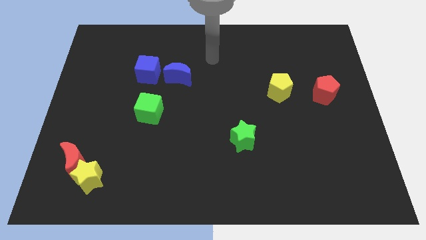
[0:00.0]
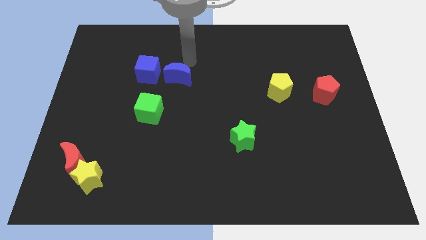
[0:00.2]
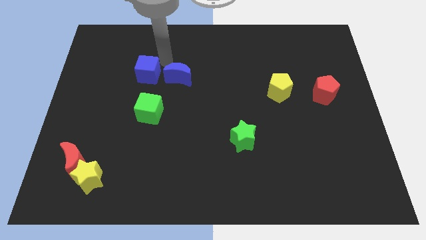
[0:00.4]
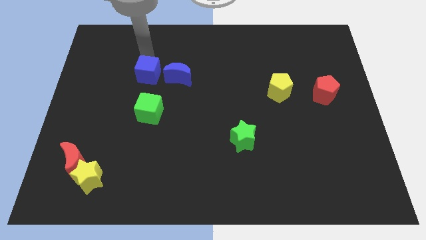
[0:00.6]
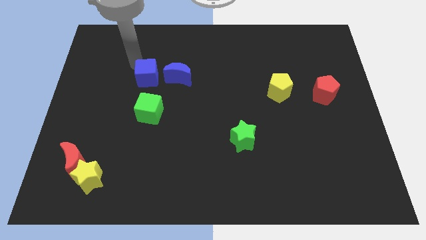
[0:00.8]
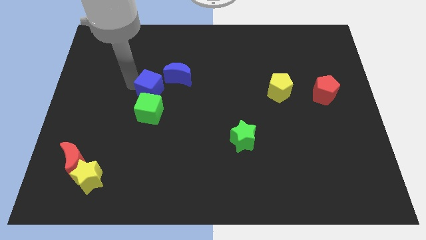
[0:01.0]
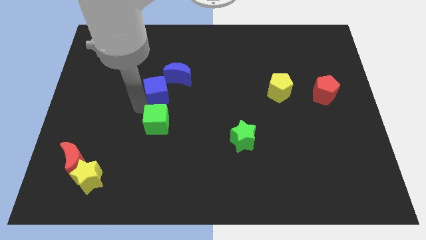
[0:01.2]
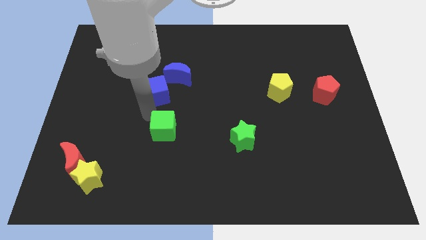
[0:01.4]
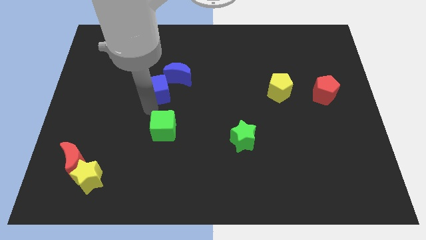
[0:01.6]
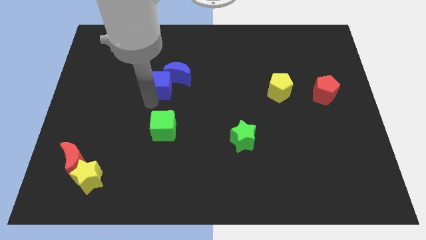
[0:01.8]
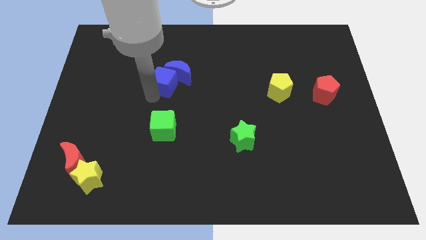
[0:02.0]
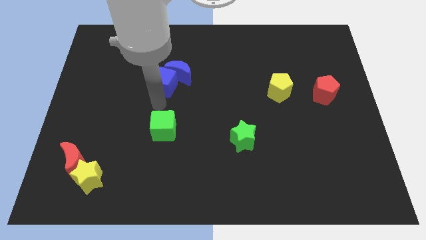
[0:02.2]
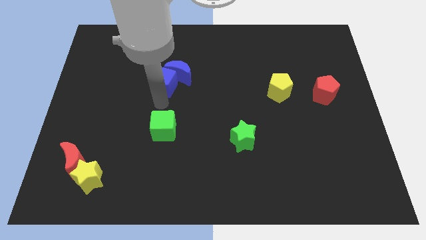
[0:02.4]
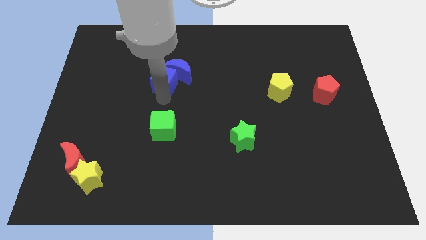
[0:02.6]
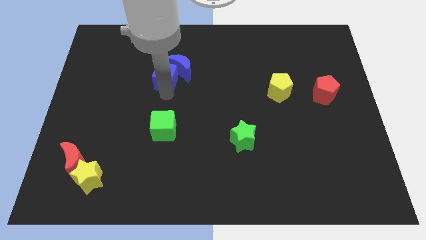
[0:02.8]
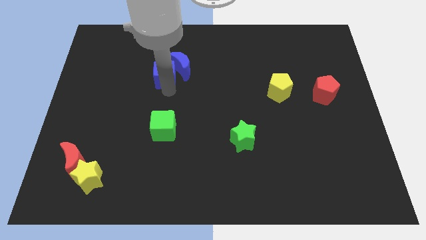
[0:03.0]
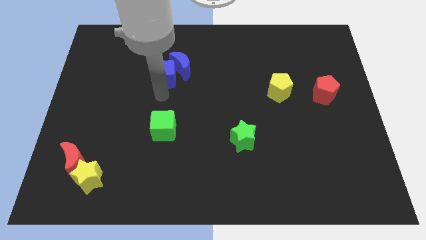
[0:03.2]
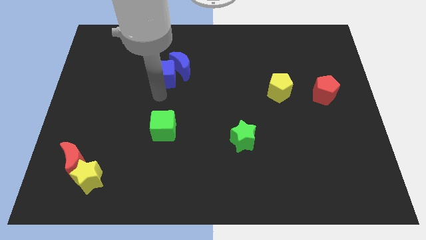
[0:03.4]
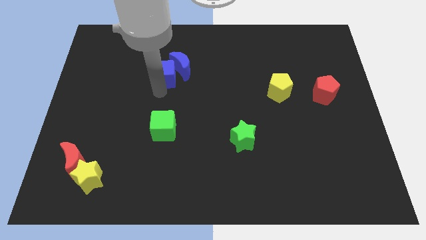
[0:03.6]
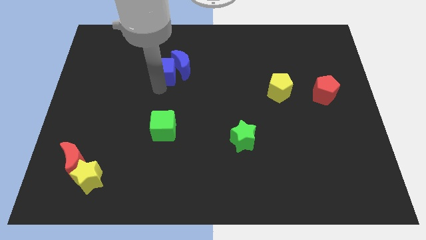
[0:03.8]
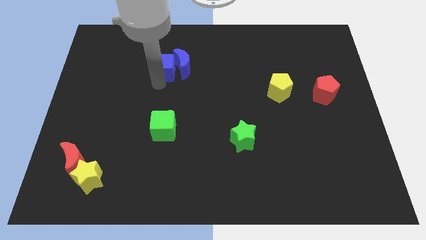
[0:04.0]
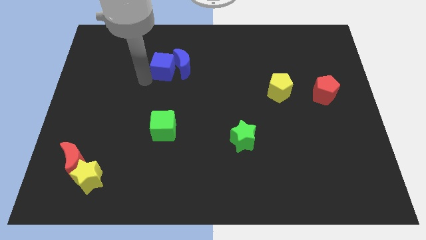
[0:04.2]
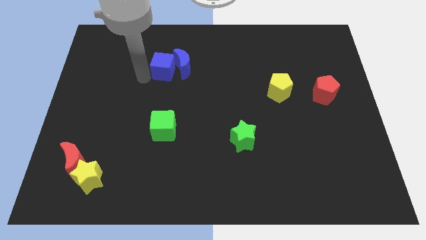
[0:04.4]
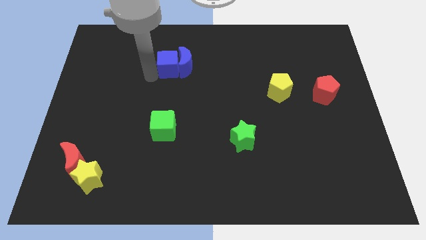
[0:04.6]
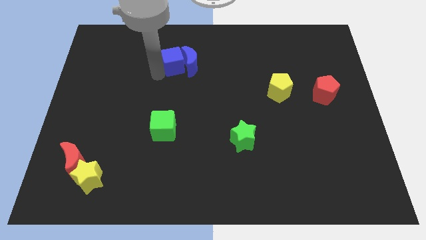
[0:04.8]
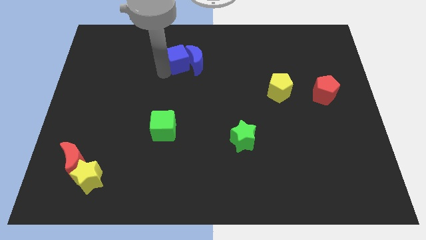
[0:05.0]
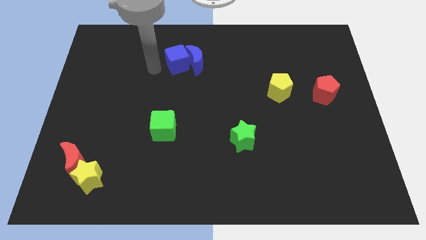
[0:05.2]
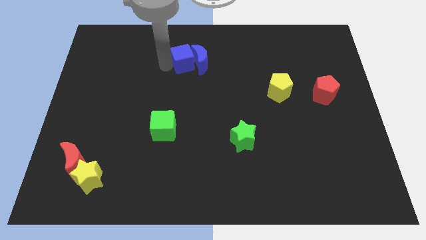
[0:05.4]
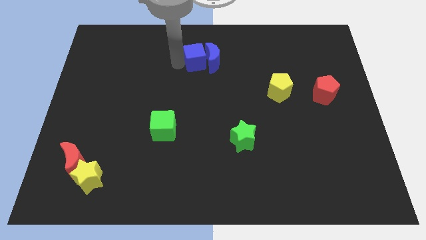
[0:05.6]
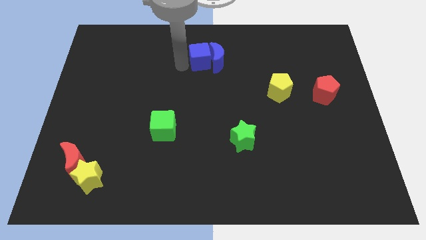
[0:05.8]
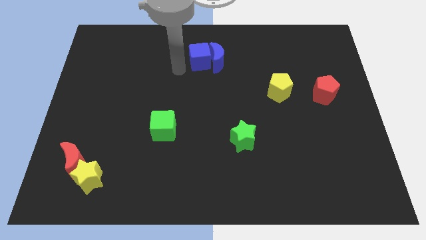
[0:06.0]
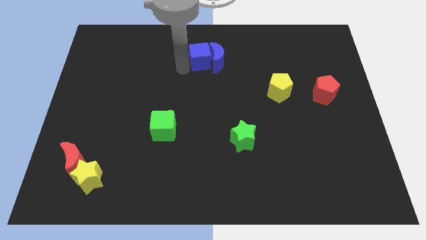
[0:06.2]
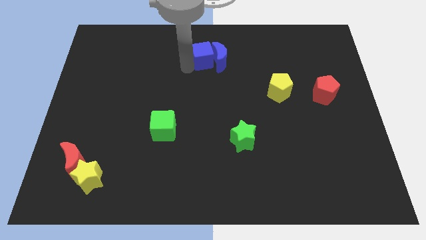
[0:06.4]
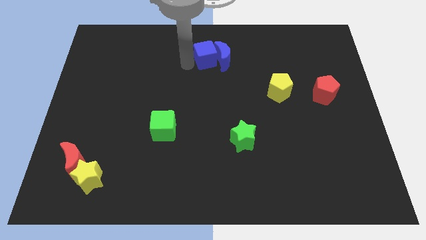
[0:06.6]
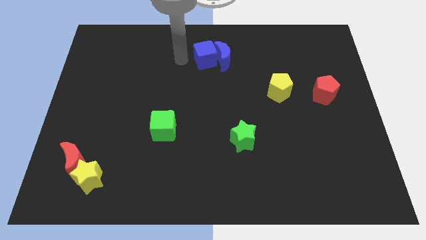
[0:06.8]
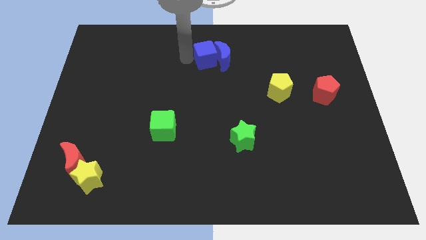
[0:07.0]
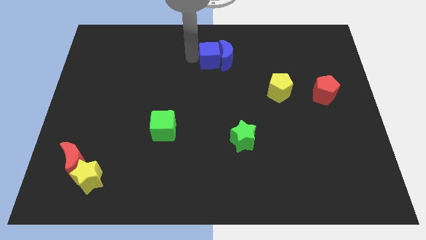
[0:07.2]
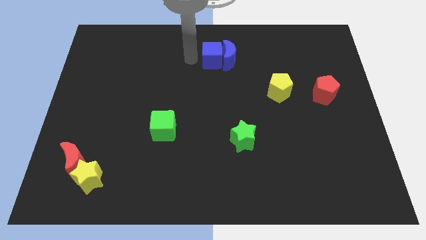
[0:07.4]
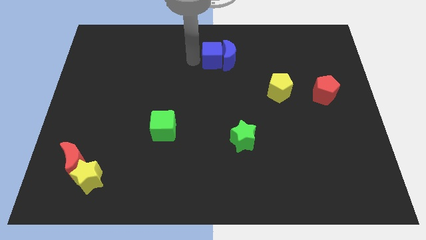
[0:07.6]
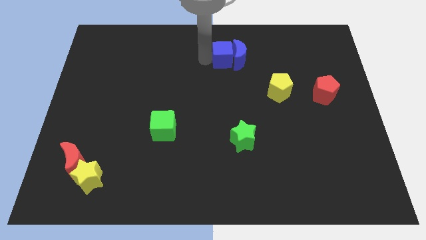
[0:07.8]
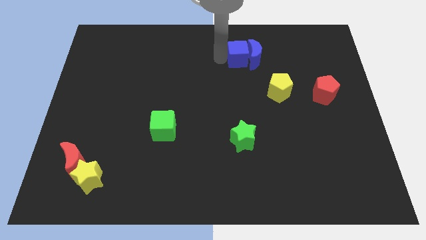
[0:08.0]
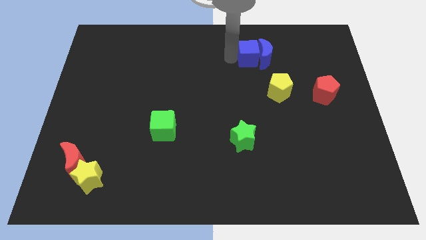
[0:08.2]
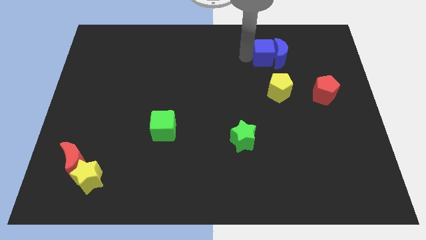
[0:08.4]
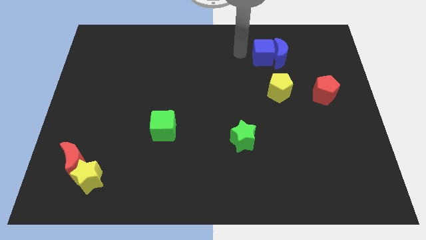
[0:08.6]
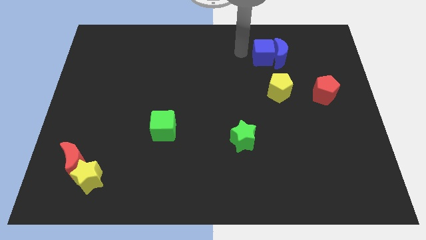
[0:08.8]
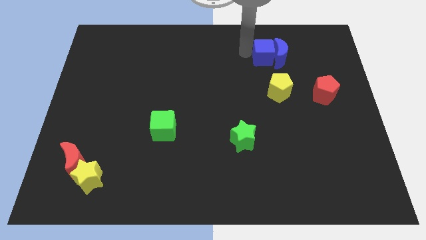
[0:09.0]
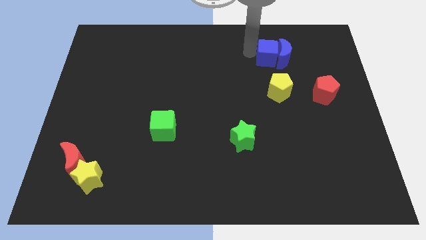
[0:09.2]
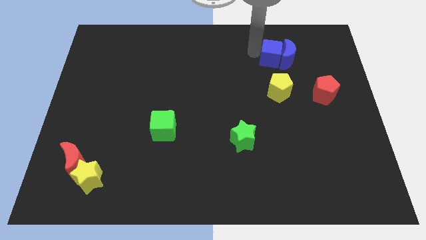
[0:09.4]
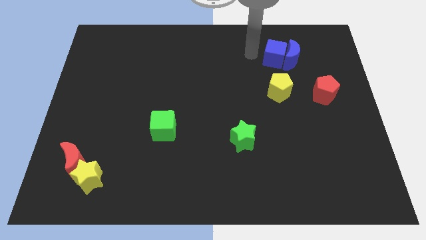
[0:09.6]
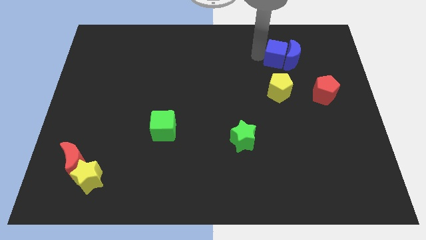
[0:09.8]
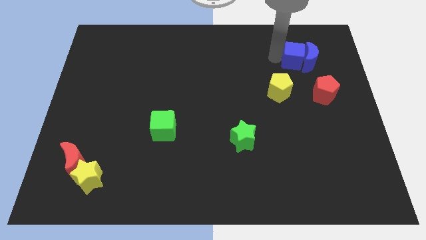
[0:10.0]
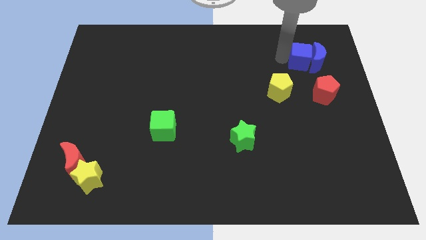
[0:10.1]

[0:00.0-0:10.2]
move the blue cube to the top side of the red pentagon

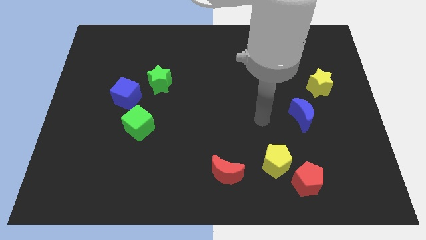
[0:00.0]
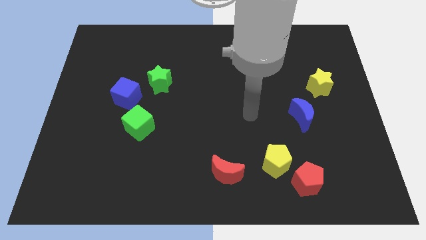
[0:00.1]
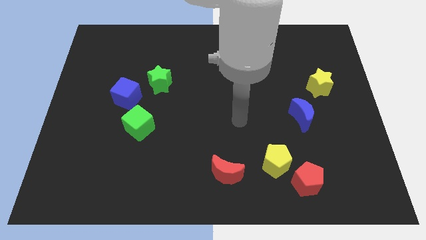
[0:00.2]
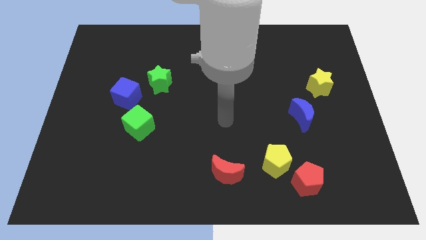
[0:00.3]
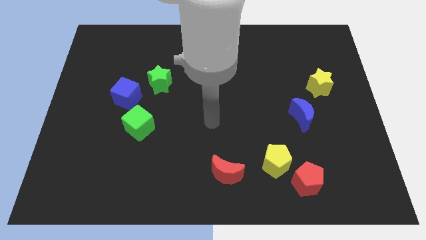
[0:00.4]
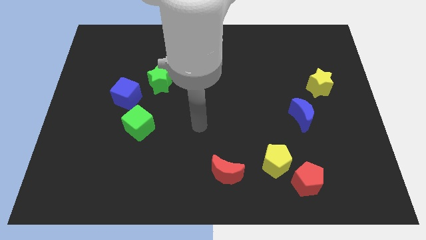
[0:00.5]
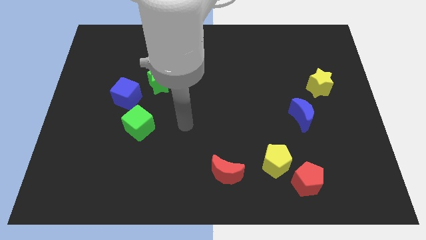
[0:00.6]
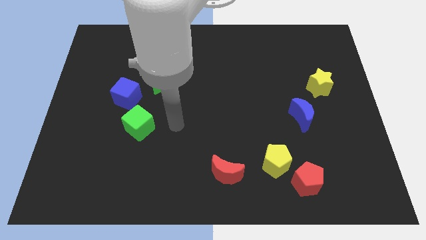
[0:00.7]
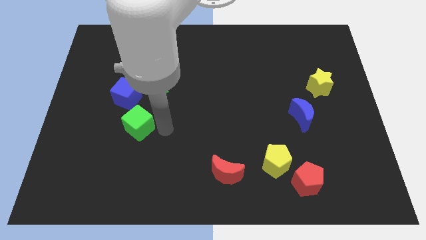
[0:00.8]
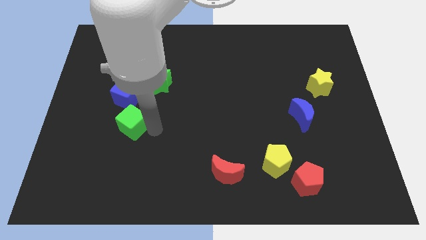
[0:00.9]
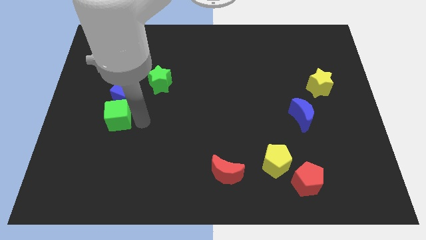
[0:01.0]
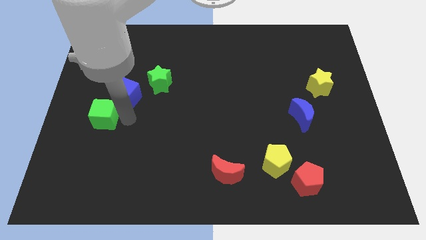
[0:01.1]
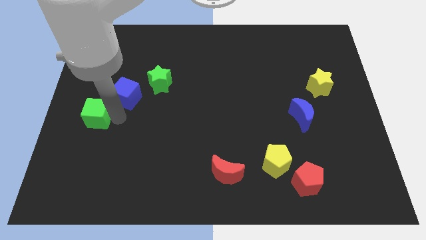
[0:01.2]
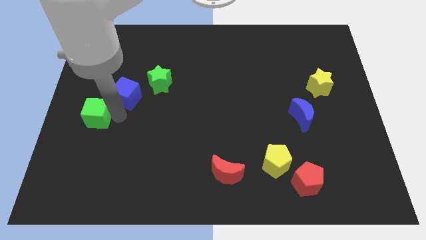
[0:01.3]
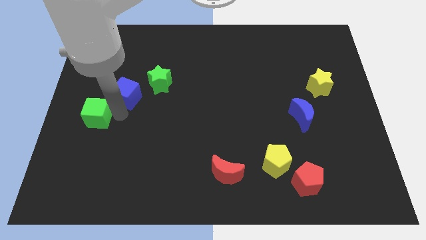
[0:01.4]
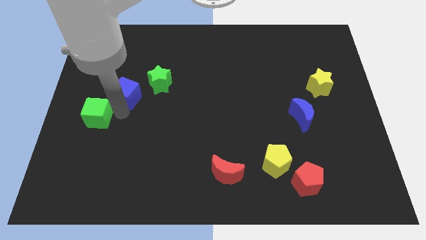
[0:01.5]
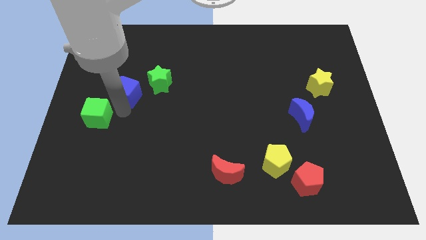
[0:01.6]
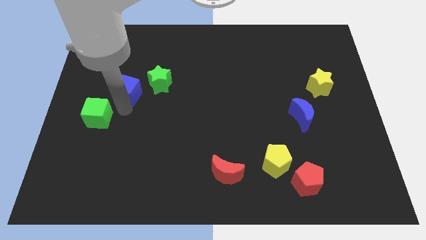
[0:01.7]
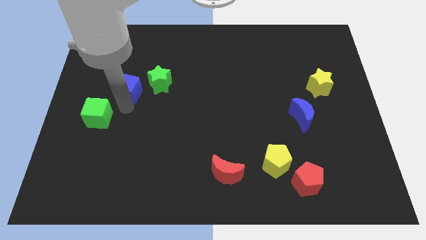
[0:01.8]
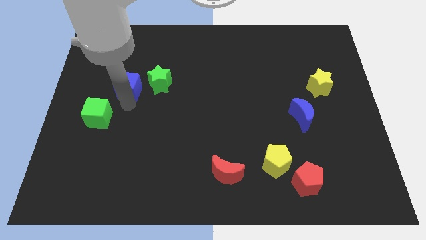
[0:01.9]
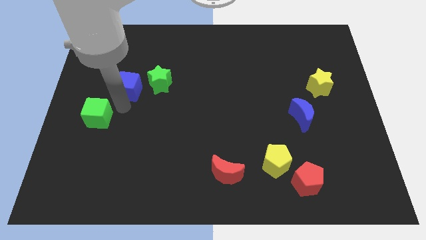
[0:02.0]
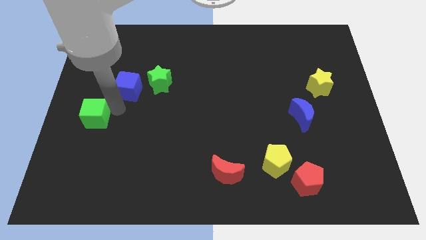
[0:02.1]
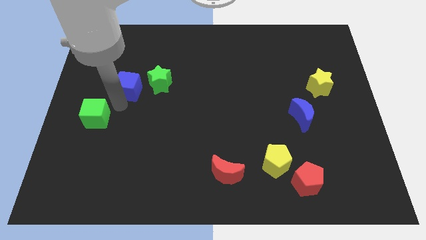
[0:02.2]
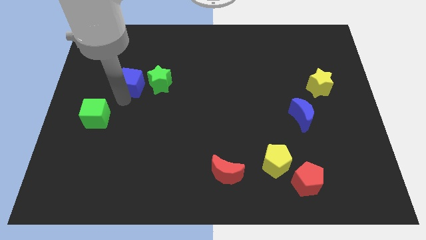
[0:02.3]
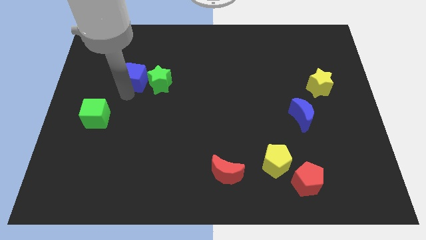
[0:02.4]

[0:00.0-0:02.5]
slide the blue cube to the top left side of the green star
